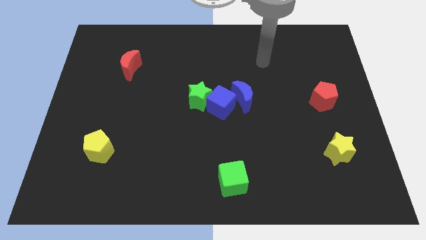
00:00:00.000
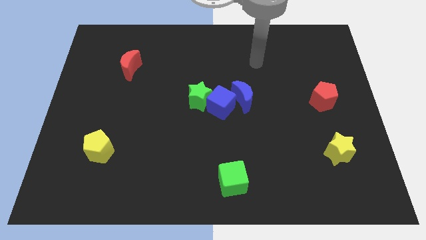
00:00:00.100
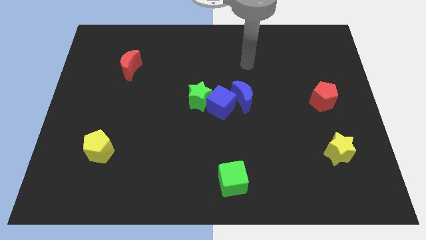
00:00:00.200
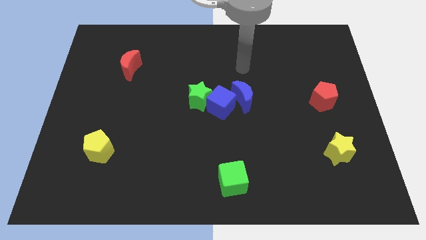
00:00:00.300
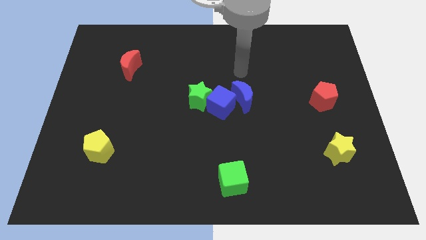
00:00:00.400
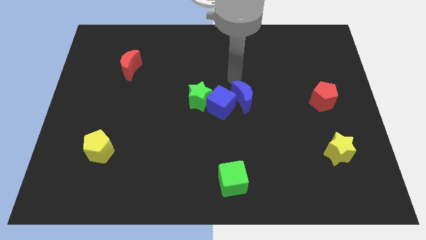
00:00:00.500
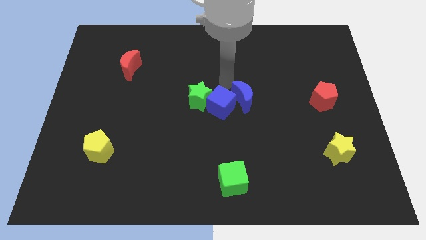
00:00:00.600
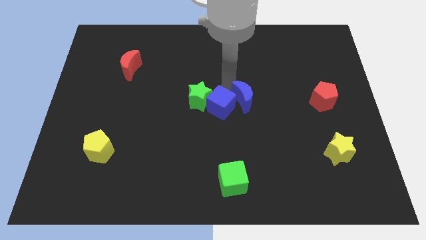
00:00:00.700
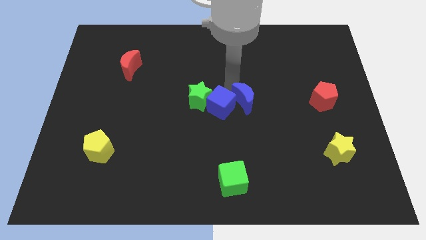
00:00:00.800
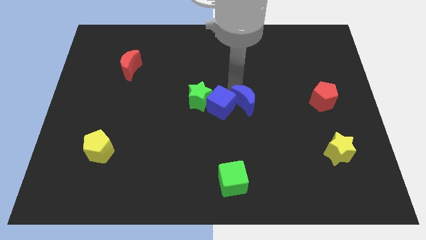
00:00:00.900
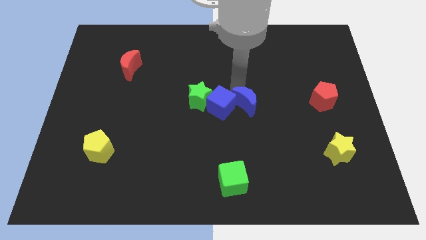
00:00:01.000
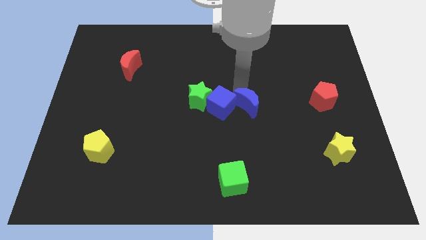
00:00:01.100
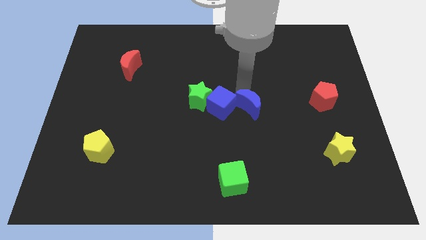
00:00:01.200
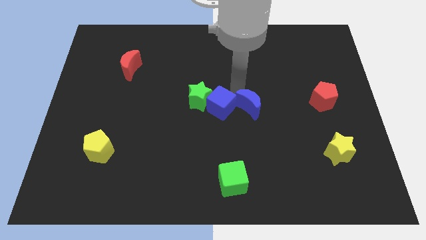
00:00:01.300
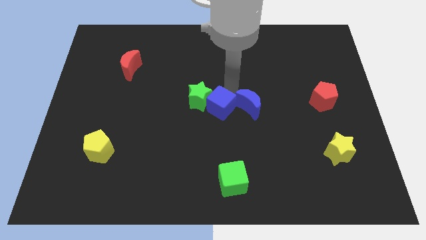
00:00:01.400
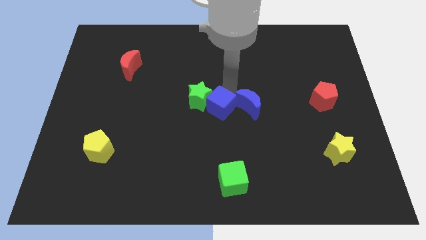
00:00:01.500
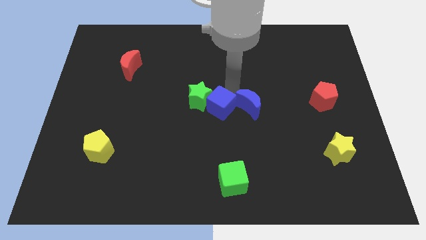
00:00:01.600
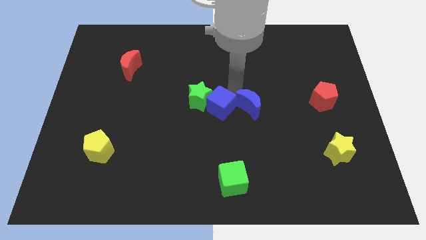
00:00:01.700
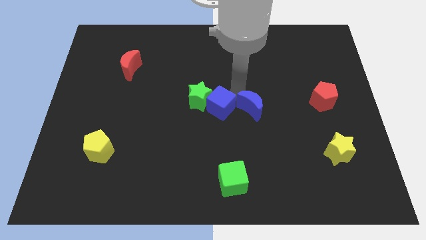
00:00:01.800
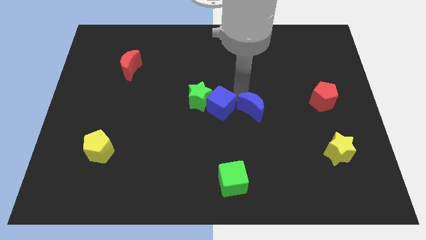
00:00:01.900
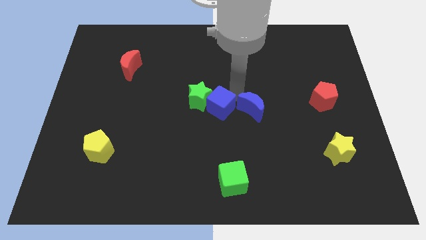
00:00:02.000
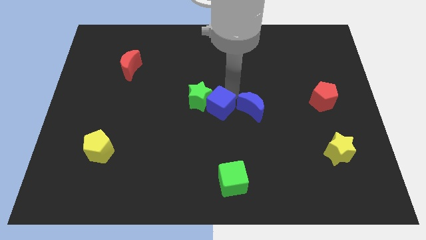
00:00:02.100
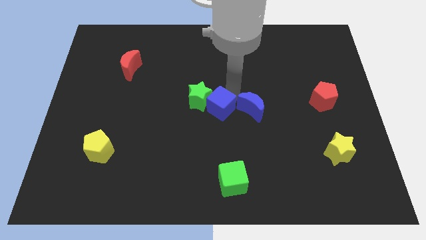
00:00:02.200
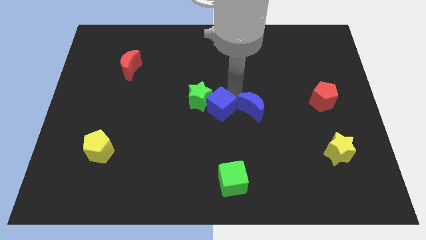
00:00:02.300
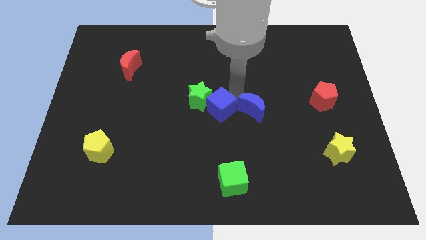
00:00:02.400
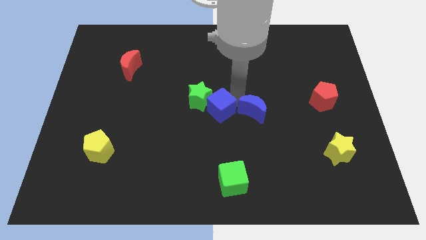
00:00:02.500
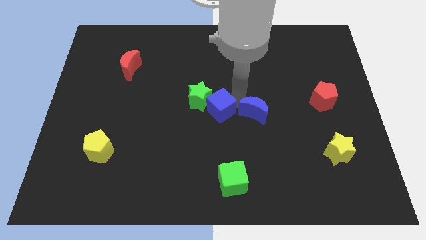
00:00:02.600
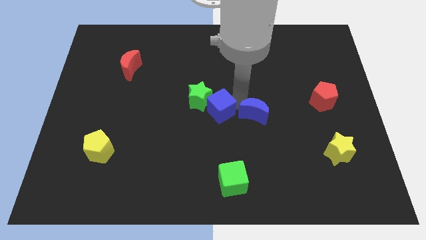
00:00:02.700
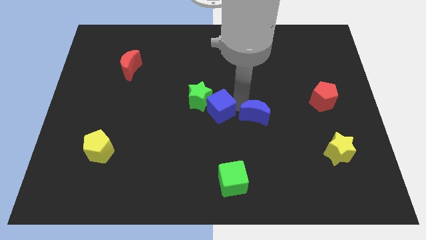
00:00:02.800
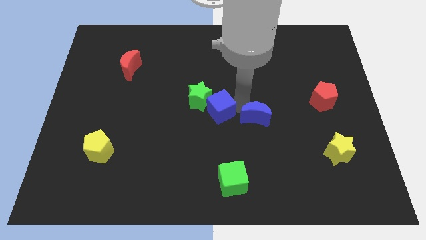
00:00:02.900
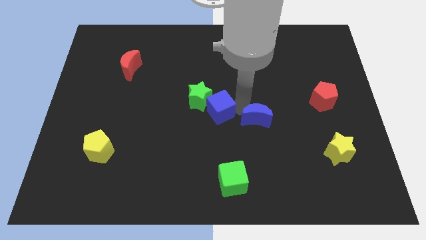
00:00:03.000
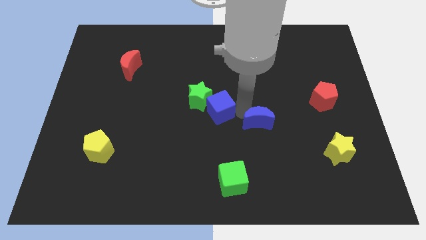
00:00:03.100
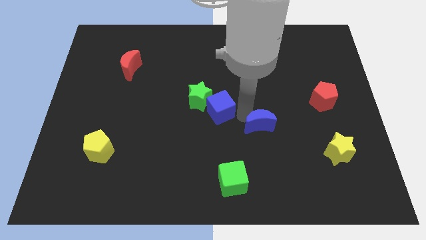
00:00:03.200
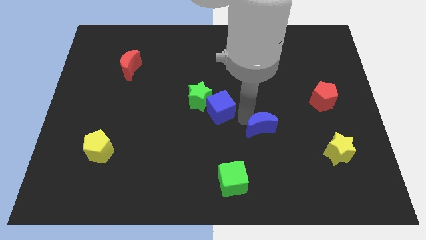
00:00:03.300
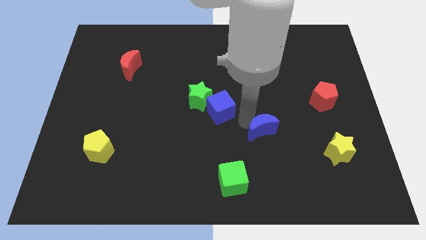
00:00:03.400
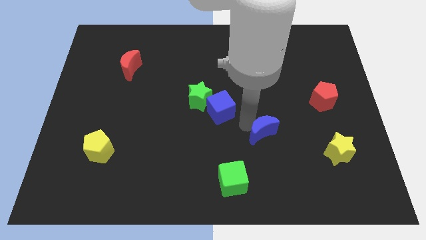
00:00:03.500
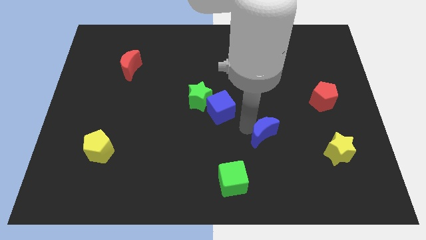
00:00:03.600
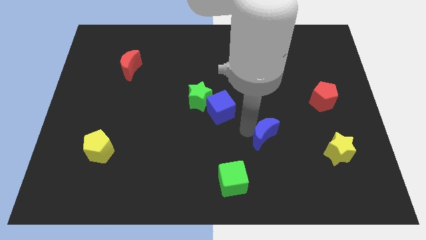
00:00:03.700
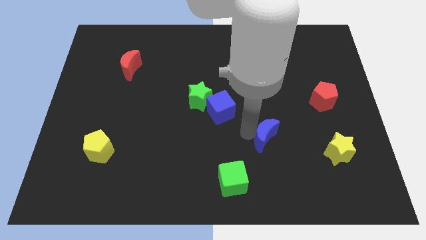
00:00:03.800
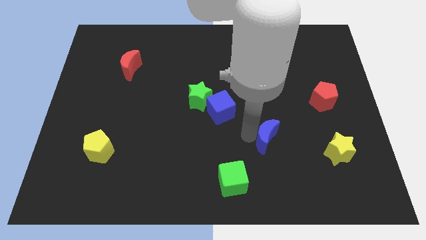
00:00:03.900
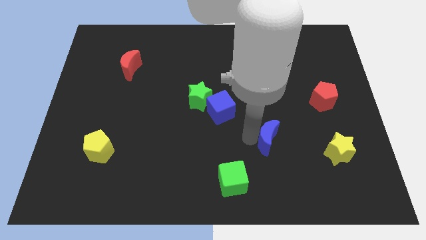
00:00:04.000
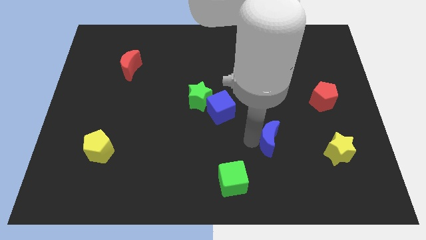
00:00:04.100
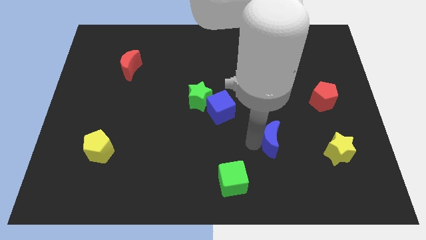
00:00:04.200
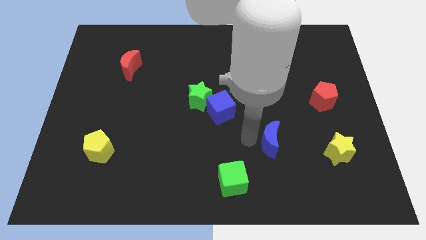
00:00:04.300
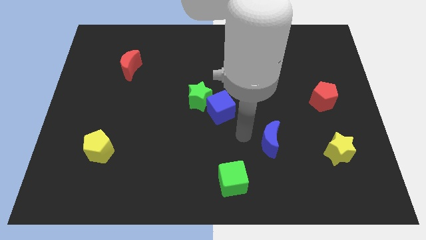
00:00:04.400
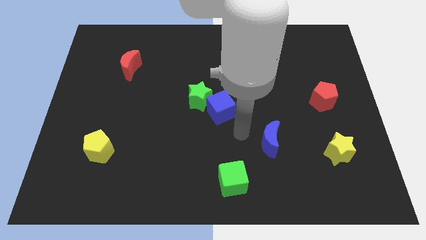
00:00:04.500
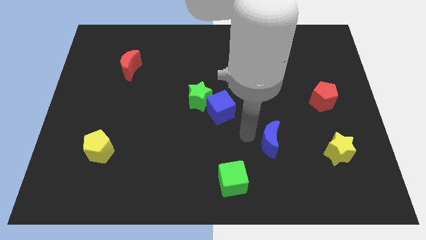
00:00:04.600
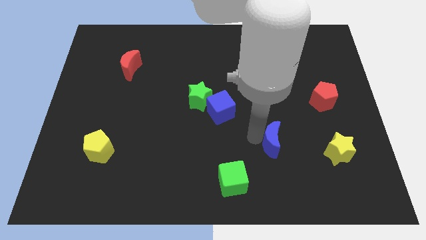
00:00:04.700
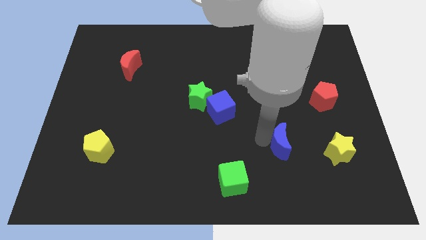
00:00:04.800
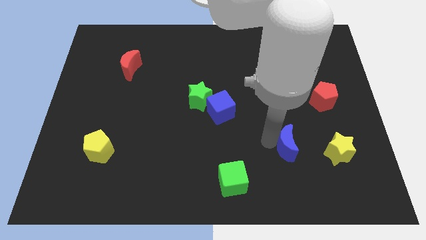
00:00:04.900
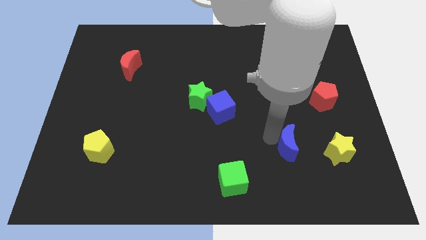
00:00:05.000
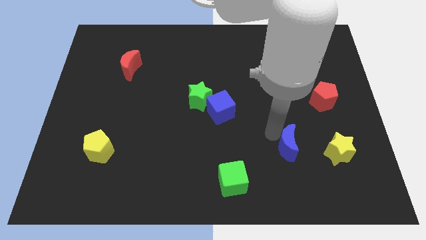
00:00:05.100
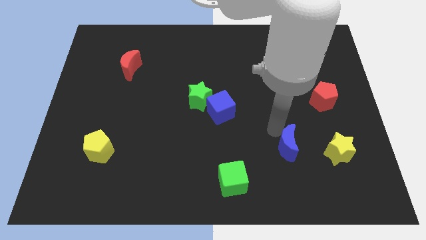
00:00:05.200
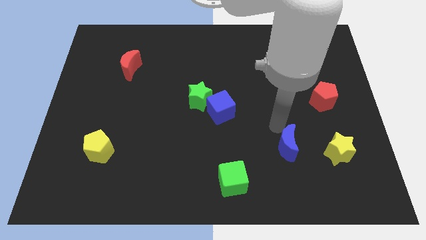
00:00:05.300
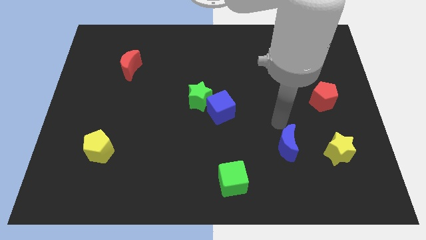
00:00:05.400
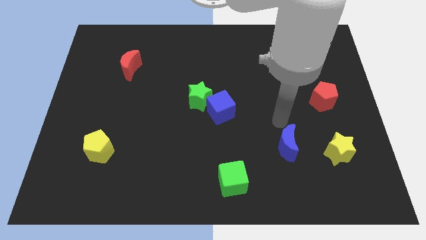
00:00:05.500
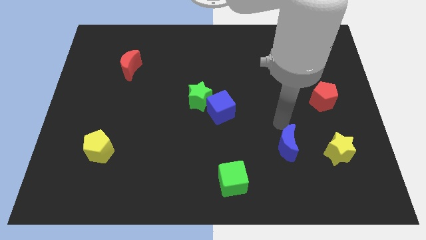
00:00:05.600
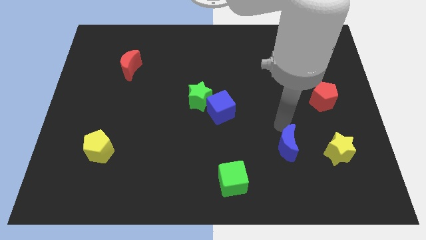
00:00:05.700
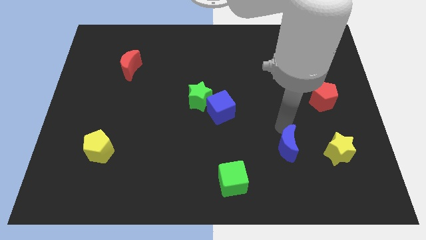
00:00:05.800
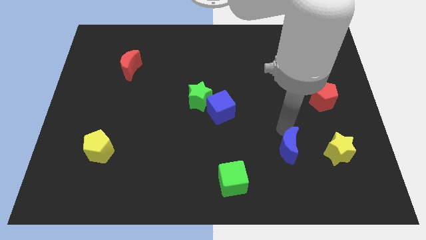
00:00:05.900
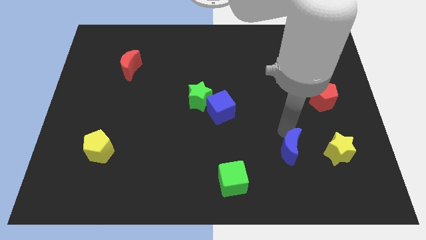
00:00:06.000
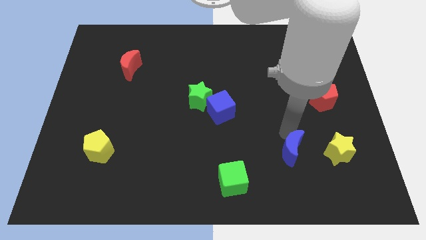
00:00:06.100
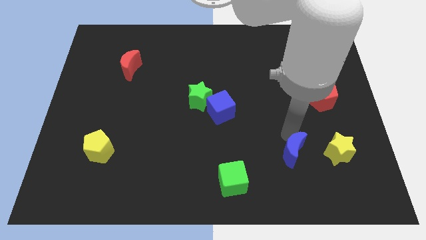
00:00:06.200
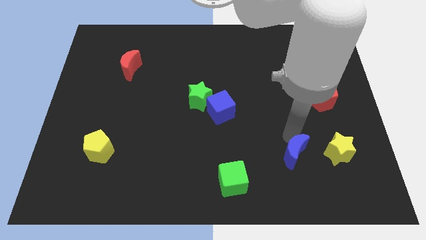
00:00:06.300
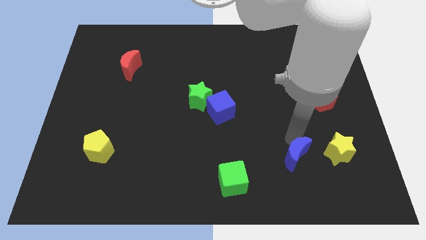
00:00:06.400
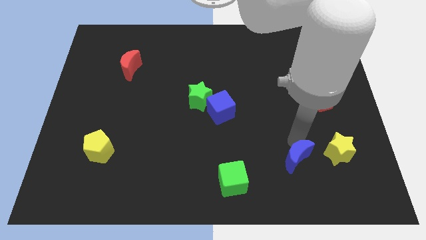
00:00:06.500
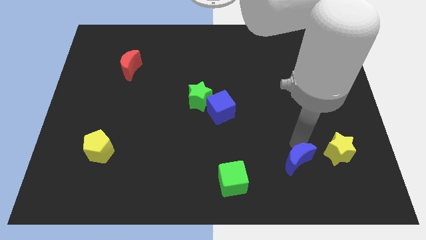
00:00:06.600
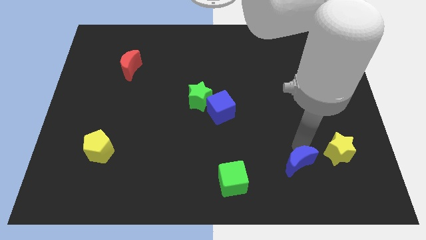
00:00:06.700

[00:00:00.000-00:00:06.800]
put the blue moon right of the green cube

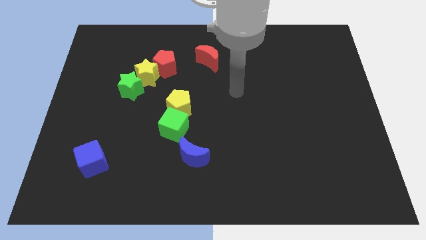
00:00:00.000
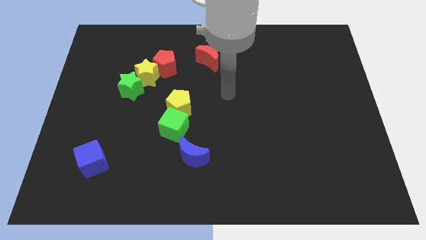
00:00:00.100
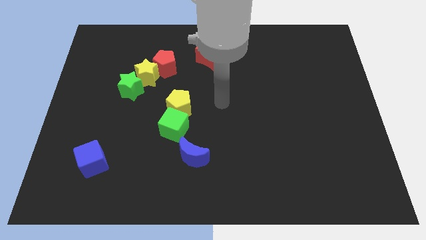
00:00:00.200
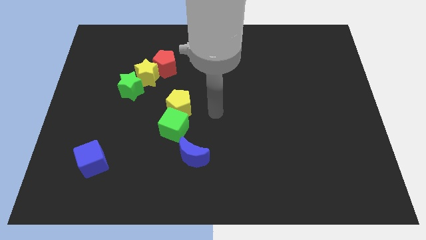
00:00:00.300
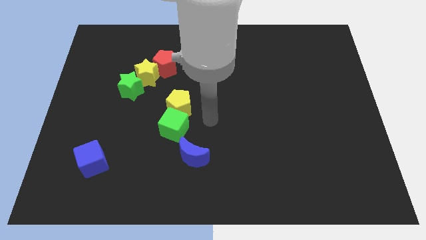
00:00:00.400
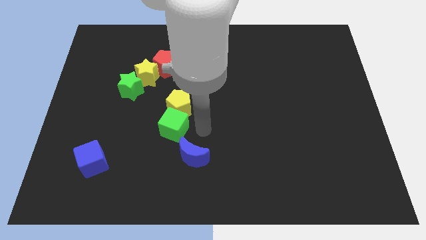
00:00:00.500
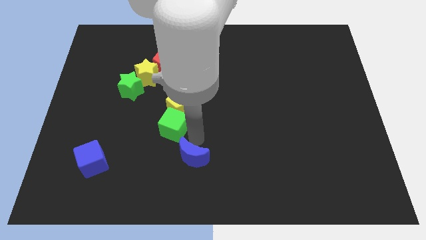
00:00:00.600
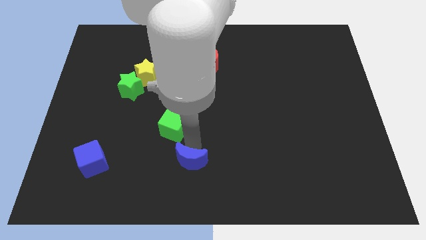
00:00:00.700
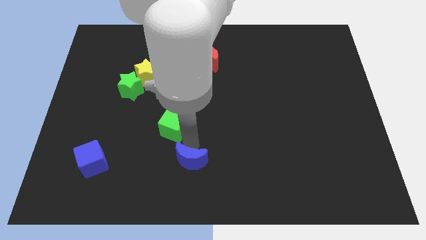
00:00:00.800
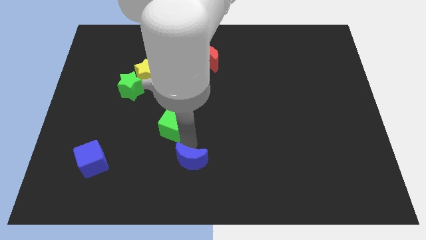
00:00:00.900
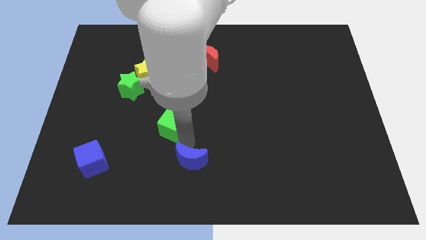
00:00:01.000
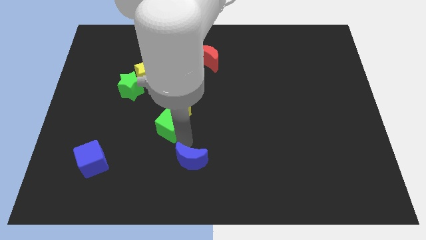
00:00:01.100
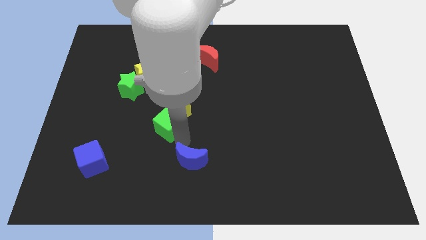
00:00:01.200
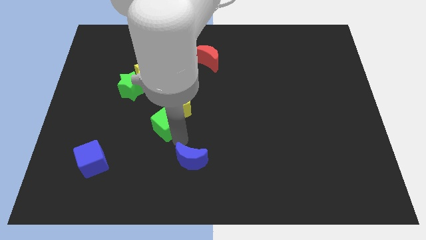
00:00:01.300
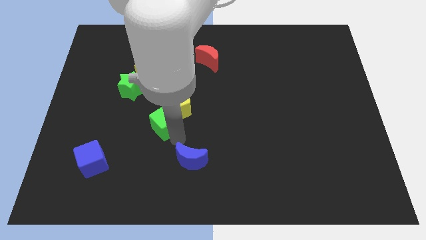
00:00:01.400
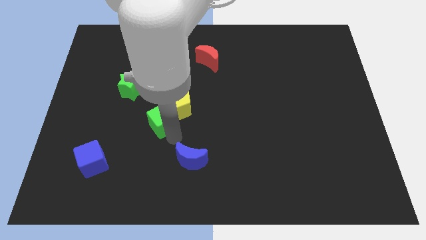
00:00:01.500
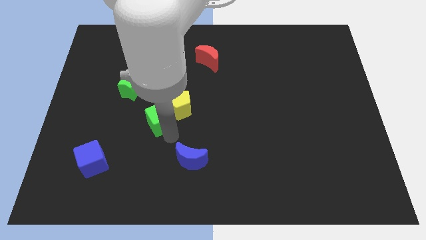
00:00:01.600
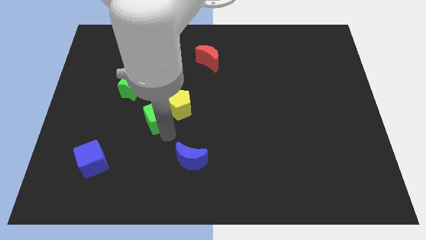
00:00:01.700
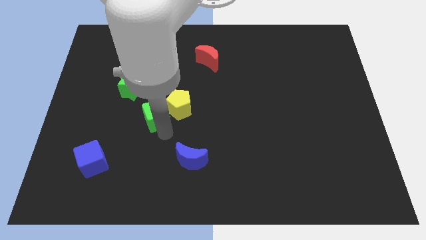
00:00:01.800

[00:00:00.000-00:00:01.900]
move the green cube to the bottom of the red pentagon
